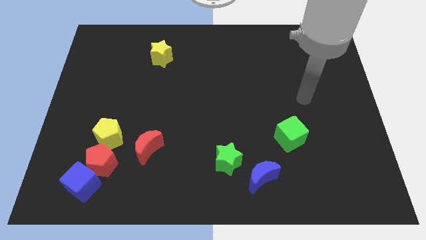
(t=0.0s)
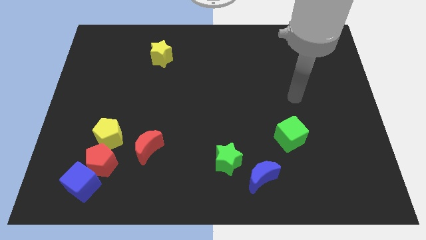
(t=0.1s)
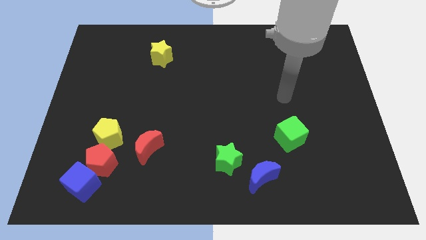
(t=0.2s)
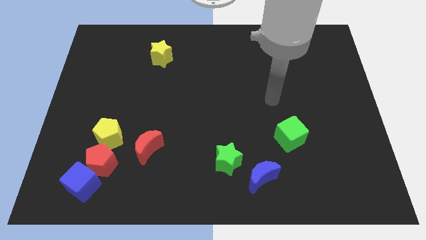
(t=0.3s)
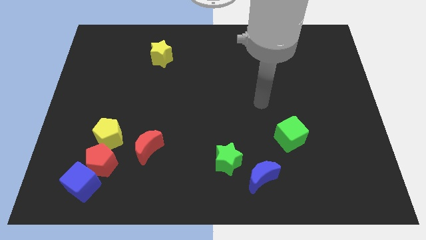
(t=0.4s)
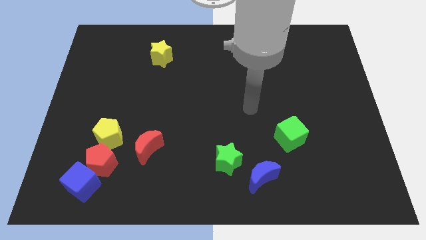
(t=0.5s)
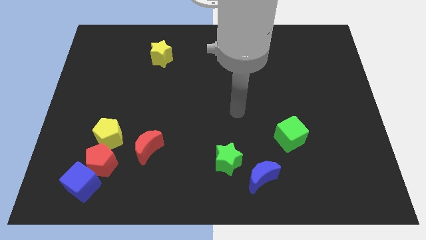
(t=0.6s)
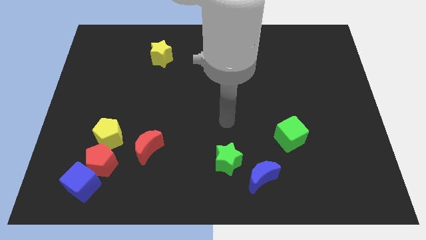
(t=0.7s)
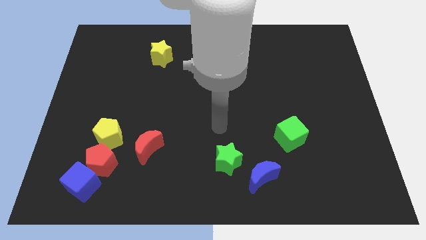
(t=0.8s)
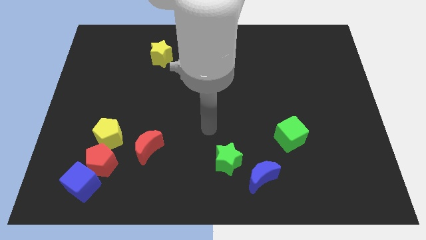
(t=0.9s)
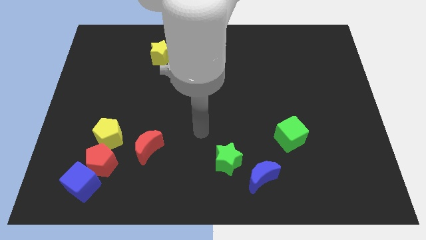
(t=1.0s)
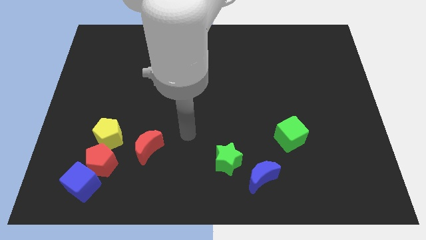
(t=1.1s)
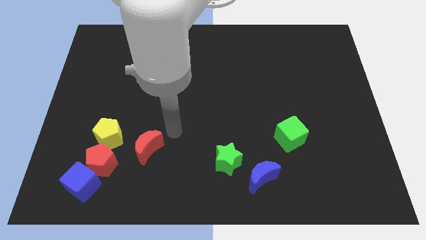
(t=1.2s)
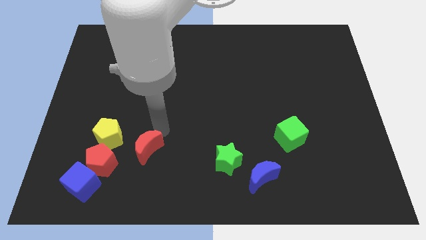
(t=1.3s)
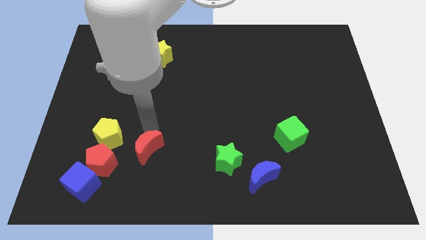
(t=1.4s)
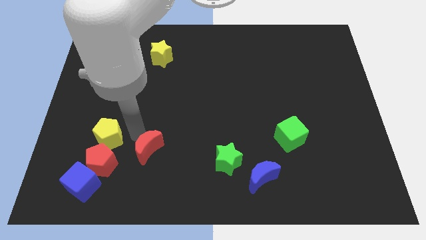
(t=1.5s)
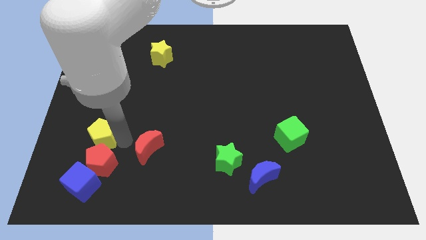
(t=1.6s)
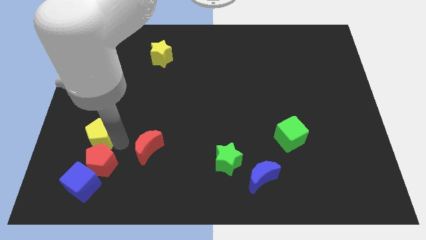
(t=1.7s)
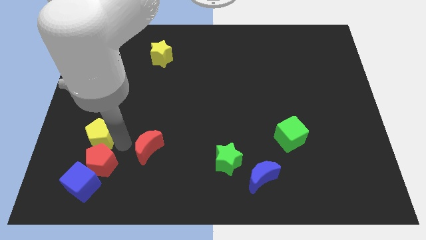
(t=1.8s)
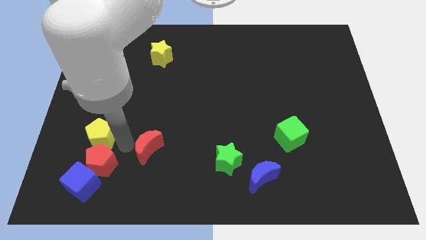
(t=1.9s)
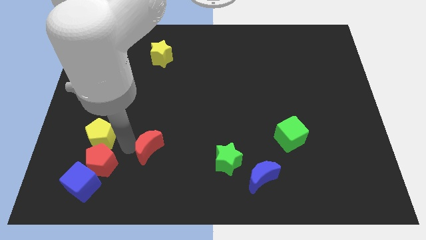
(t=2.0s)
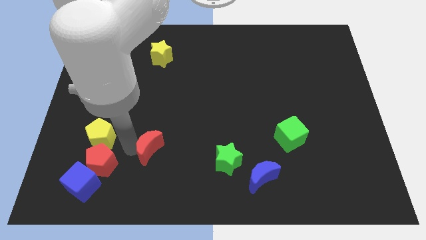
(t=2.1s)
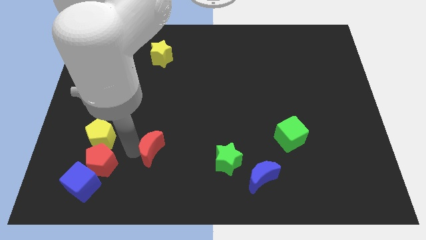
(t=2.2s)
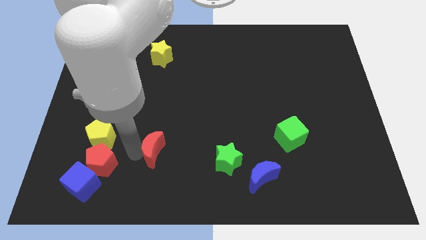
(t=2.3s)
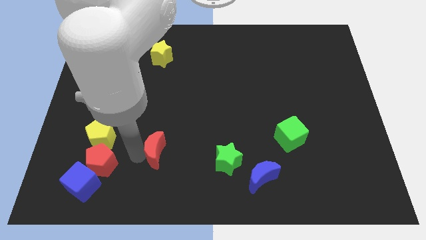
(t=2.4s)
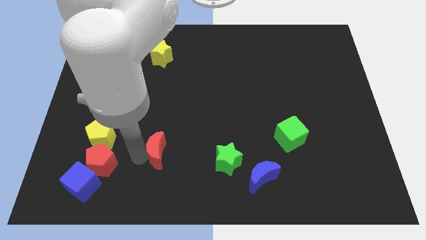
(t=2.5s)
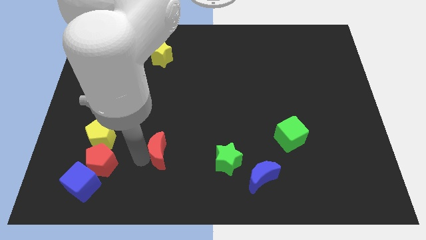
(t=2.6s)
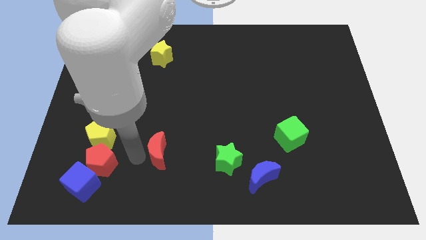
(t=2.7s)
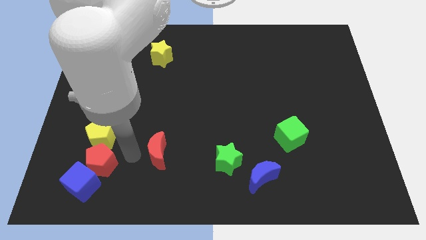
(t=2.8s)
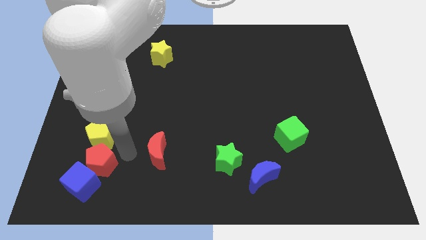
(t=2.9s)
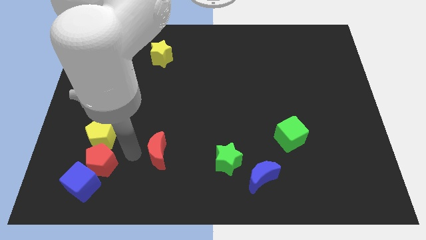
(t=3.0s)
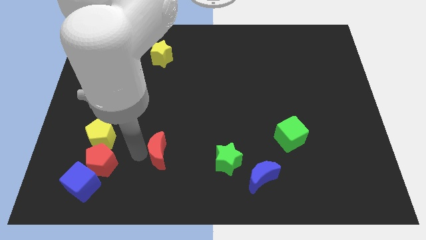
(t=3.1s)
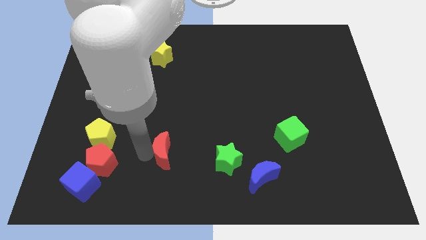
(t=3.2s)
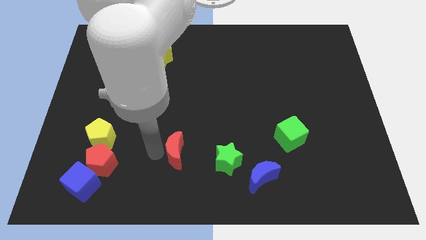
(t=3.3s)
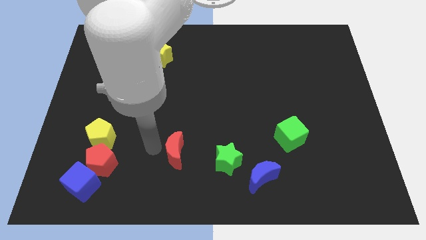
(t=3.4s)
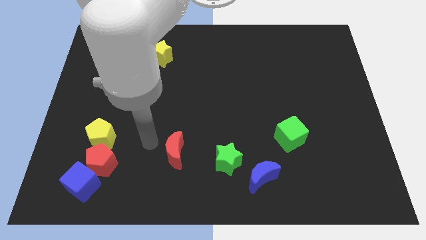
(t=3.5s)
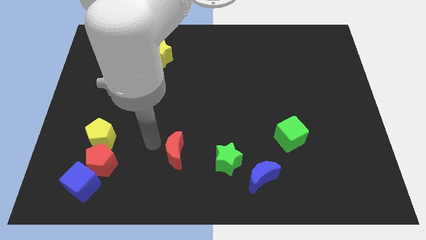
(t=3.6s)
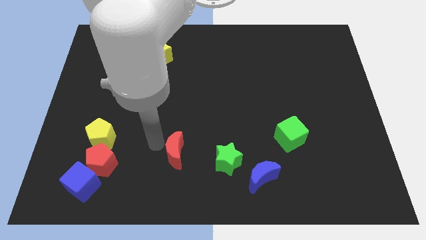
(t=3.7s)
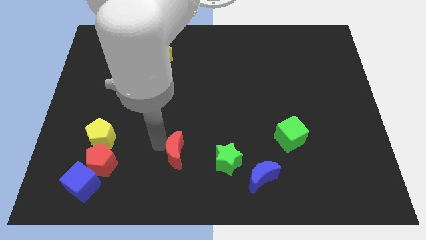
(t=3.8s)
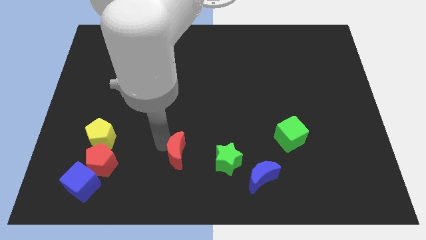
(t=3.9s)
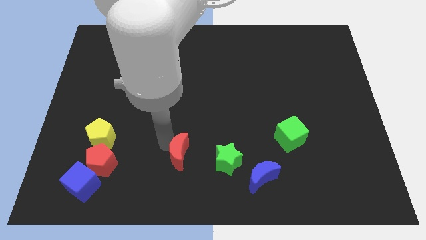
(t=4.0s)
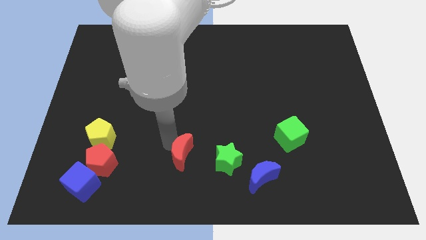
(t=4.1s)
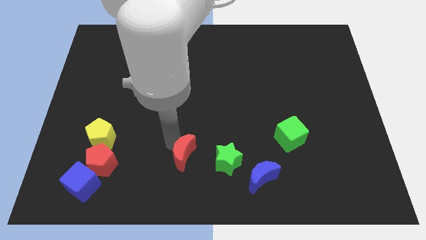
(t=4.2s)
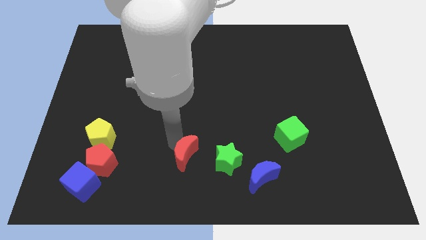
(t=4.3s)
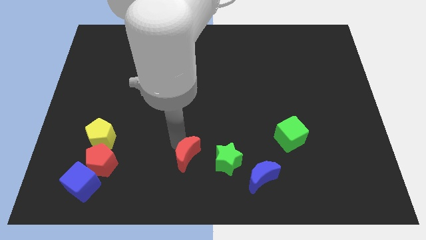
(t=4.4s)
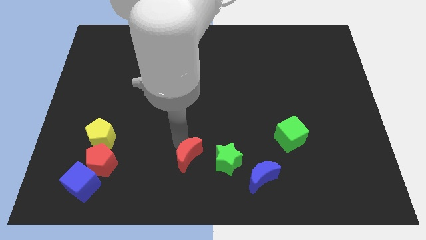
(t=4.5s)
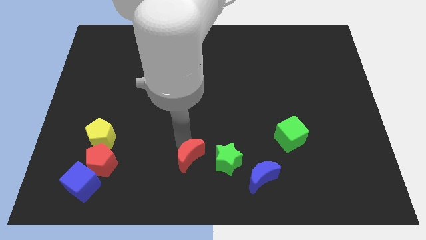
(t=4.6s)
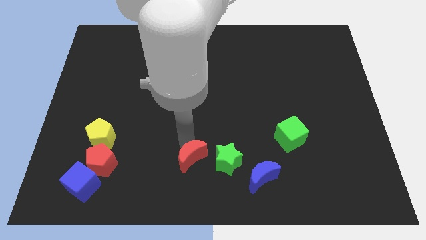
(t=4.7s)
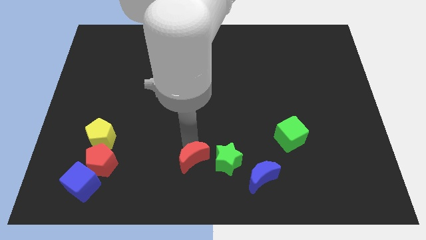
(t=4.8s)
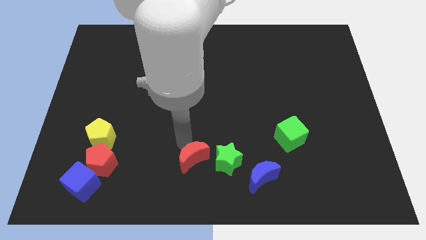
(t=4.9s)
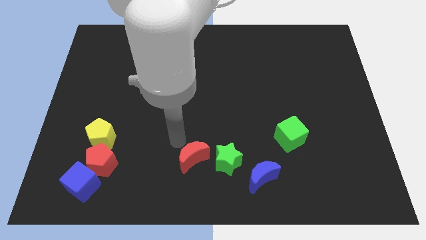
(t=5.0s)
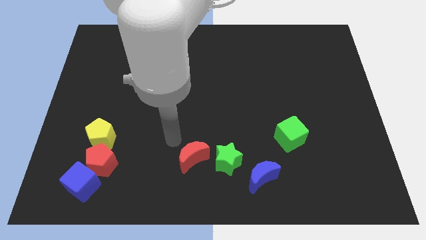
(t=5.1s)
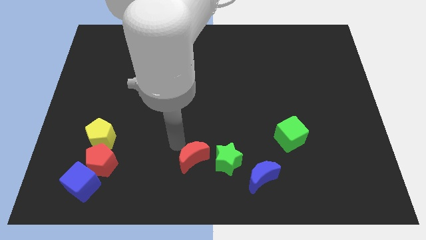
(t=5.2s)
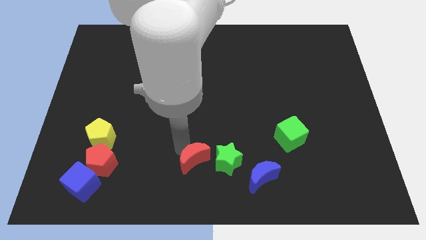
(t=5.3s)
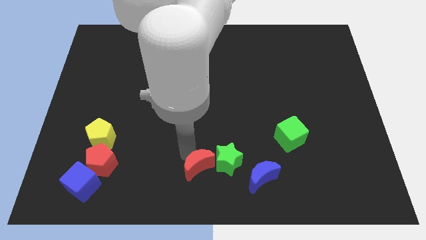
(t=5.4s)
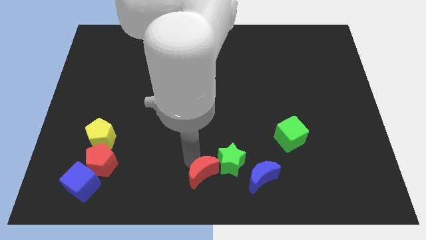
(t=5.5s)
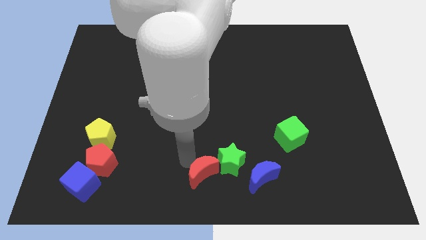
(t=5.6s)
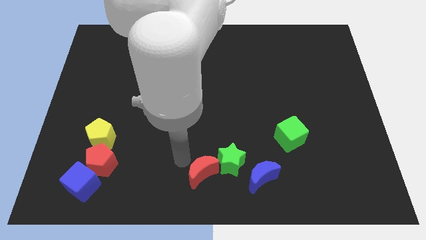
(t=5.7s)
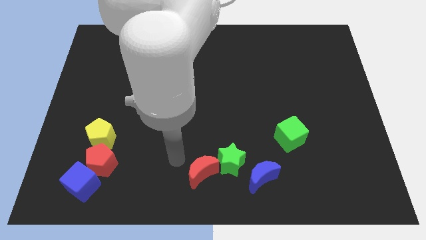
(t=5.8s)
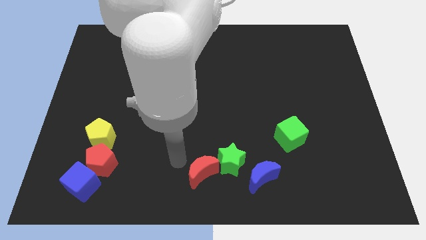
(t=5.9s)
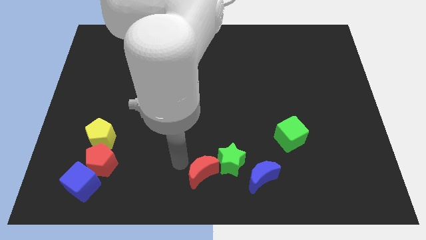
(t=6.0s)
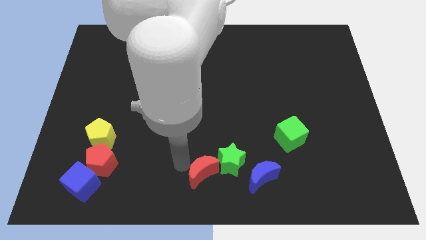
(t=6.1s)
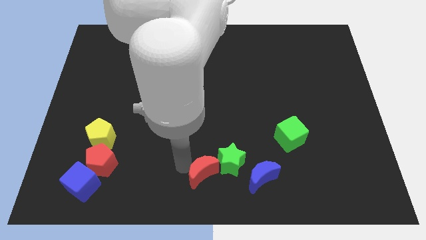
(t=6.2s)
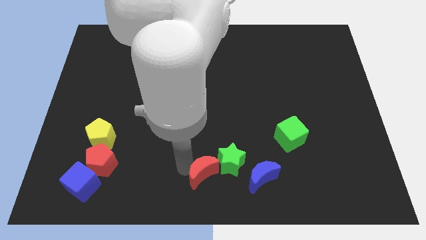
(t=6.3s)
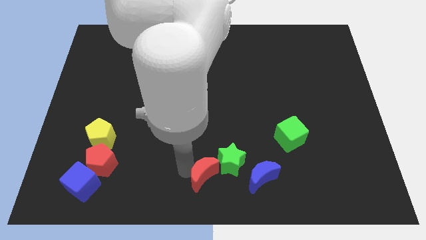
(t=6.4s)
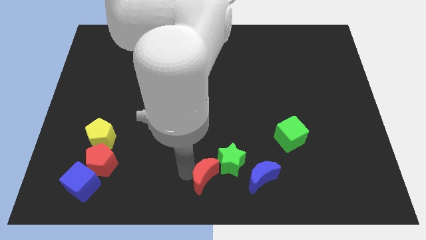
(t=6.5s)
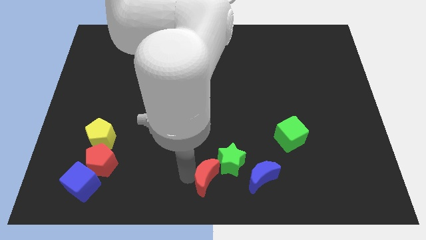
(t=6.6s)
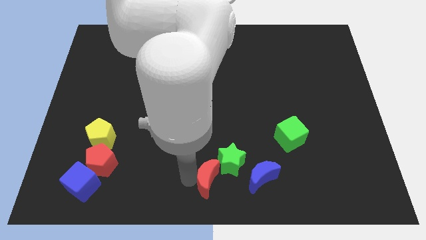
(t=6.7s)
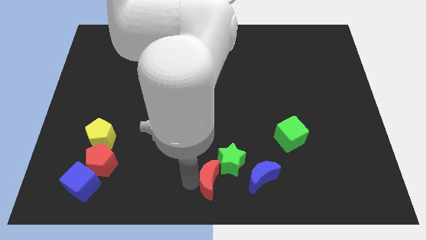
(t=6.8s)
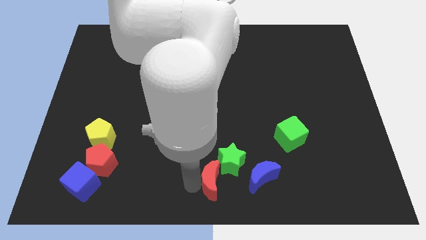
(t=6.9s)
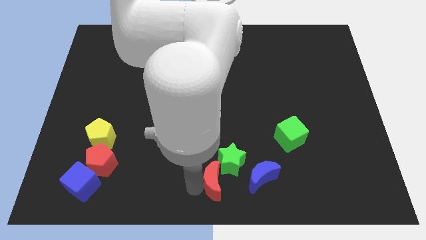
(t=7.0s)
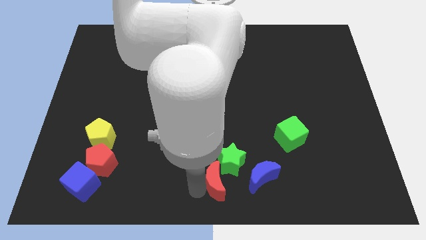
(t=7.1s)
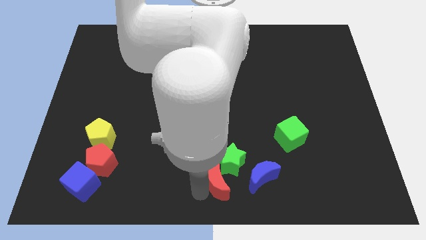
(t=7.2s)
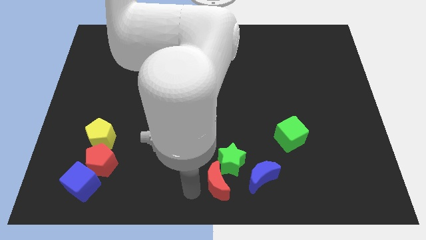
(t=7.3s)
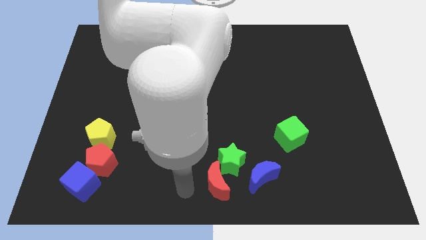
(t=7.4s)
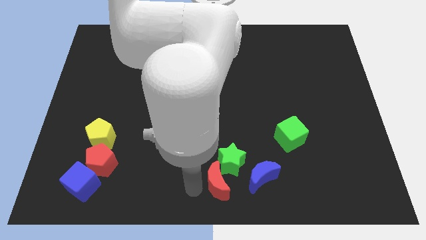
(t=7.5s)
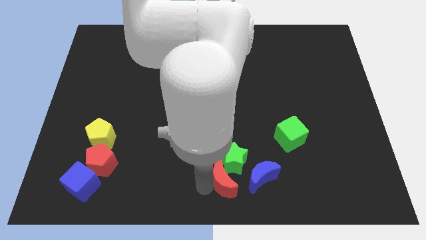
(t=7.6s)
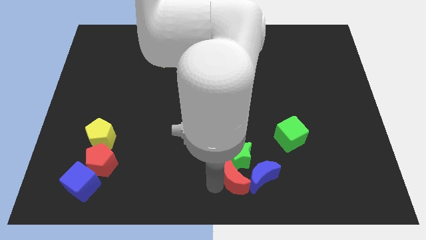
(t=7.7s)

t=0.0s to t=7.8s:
slide the red moon next to the blue moon
